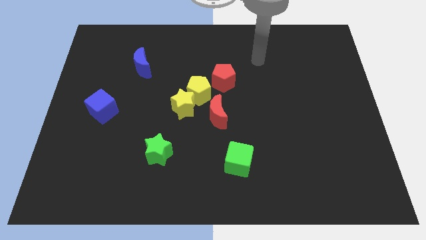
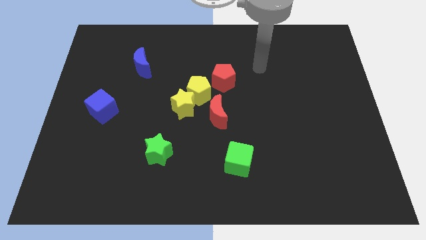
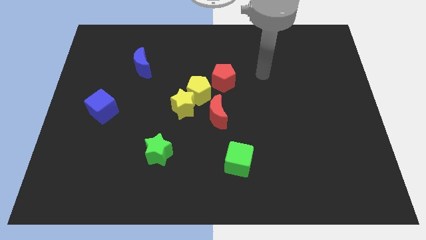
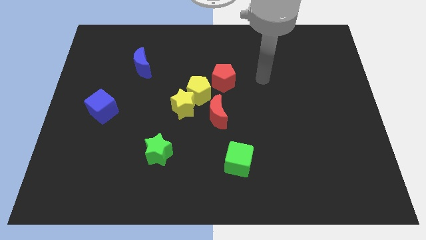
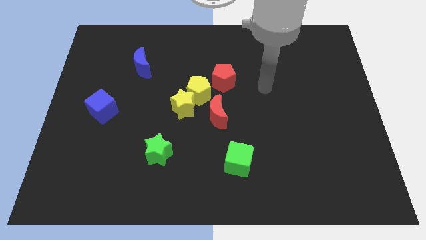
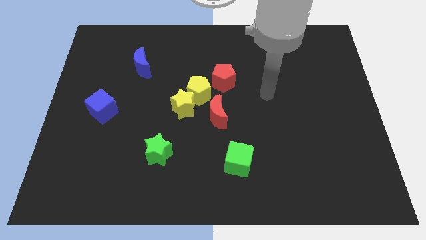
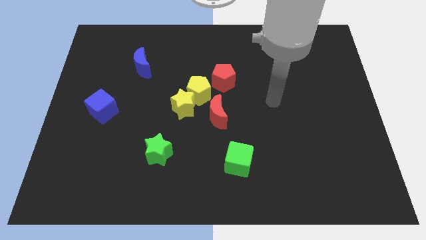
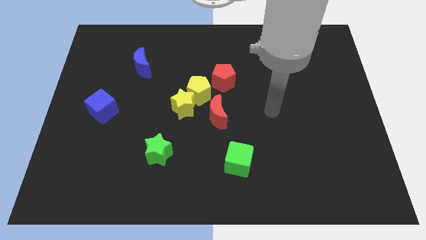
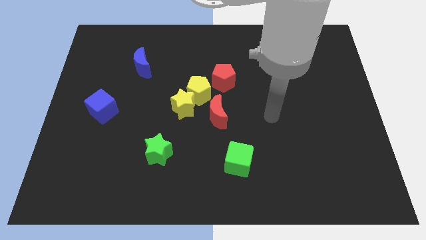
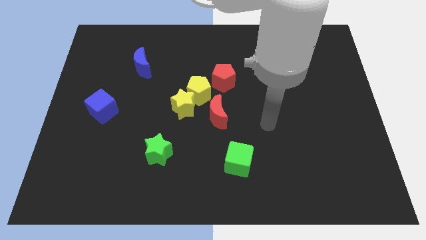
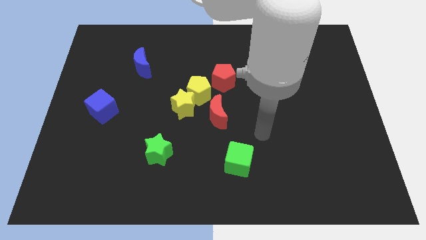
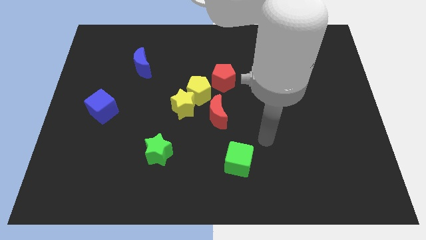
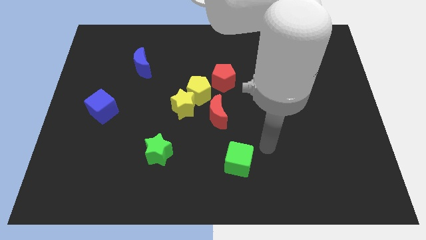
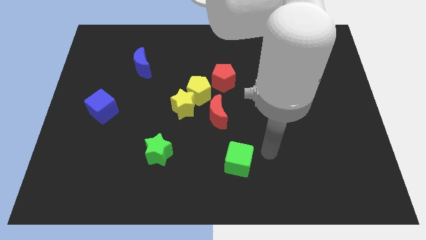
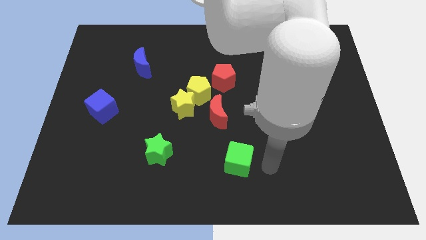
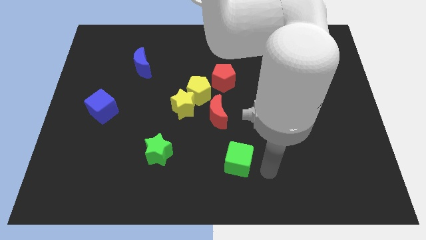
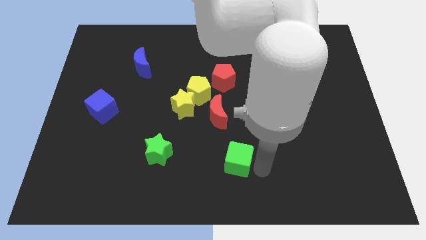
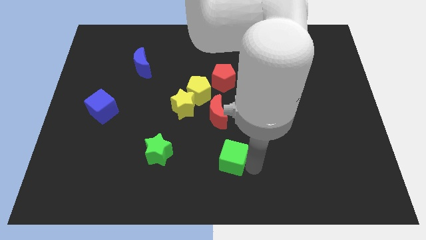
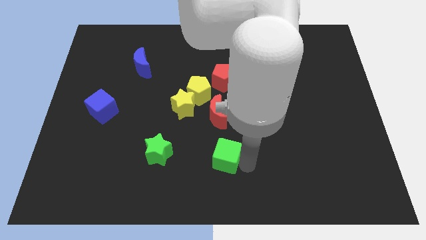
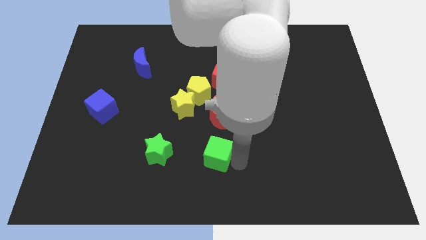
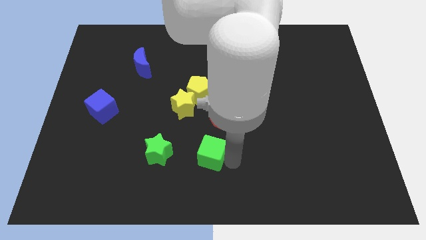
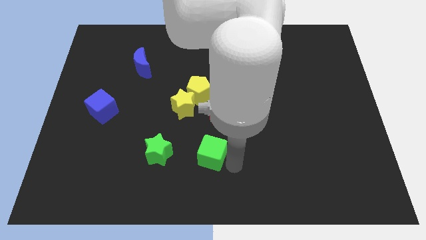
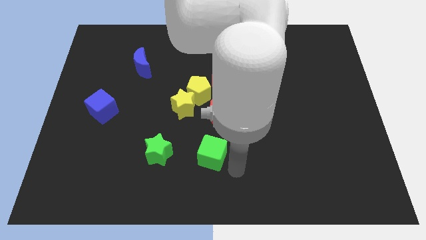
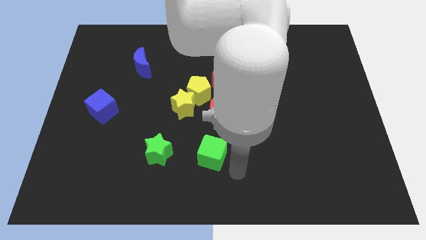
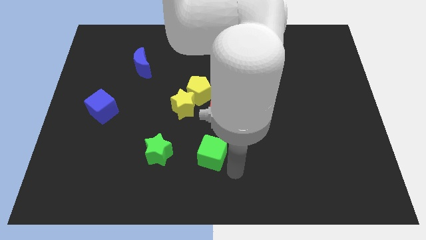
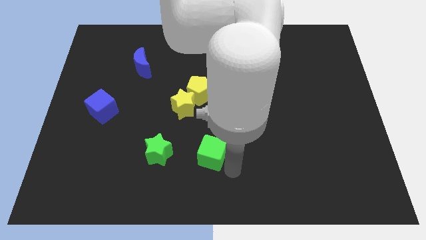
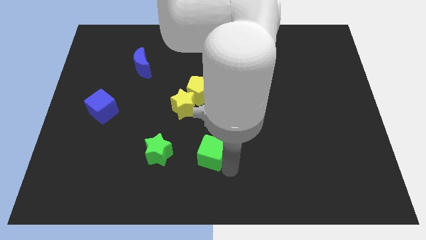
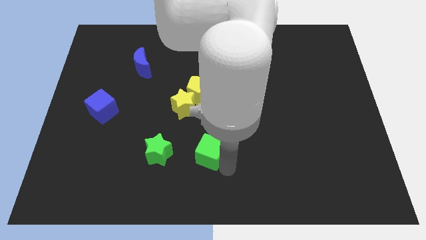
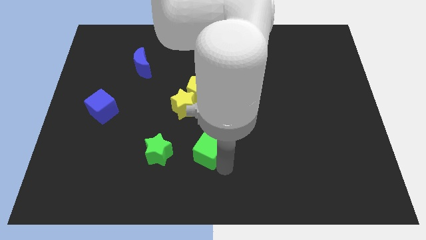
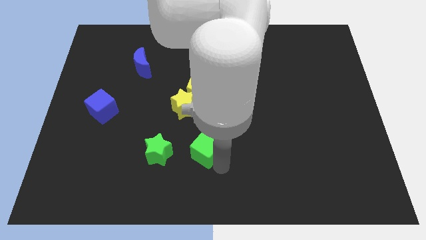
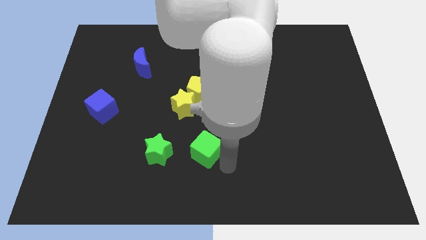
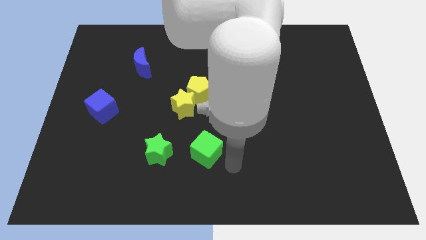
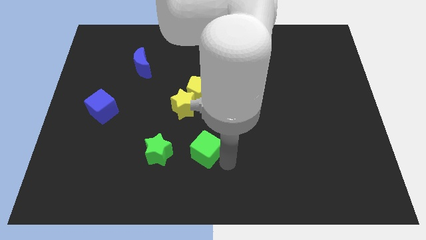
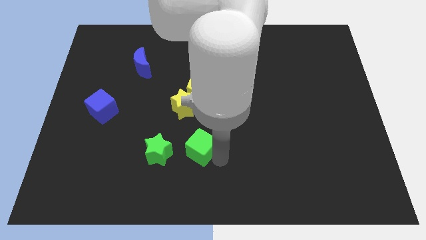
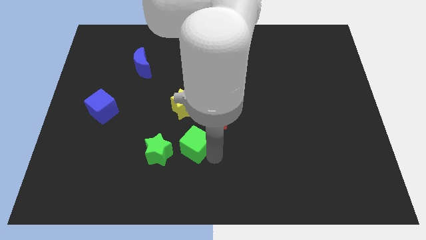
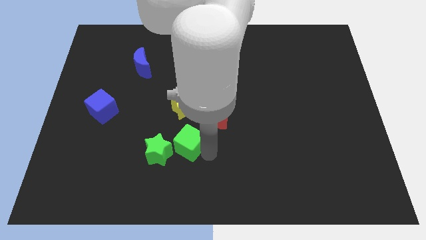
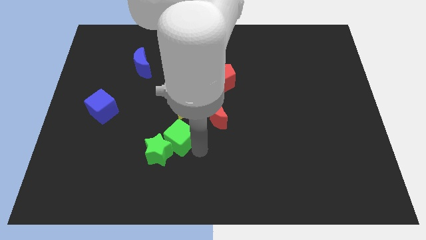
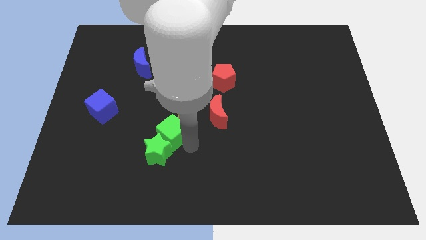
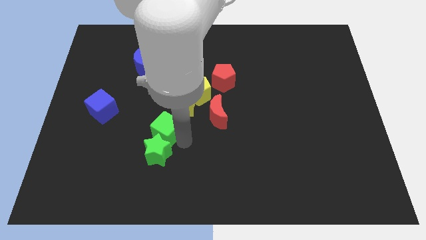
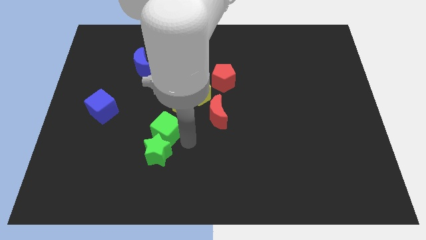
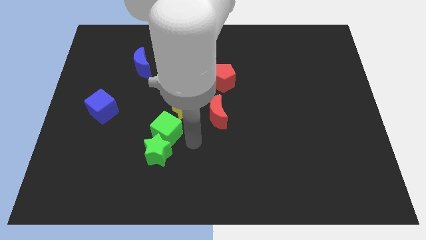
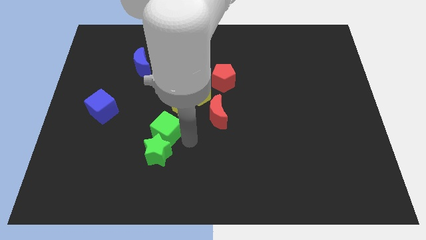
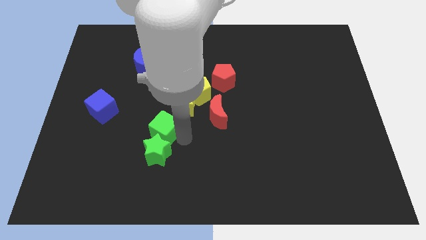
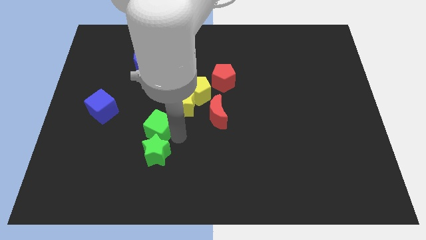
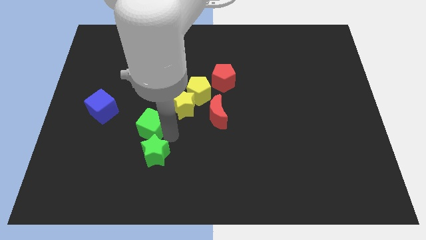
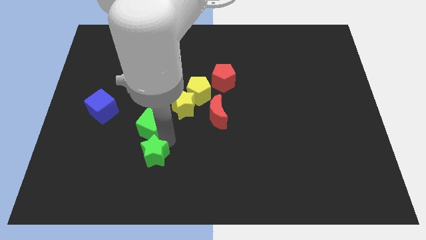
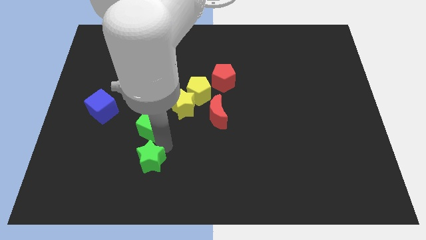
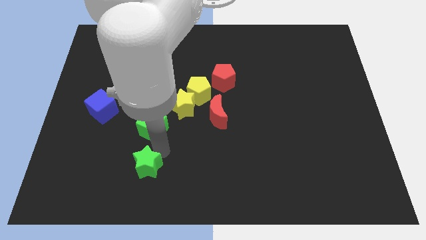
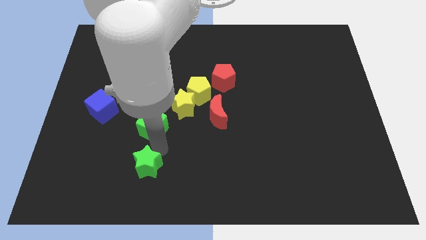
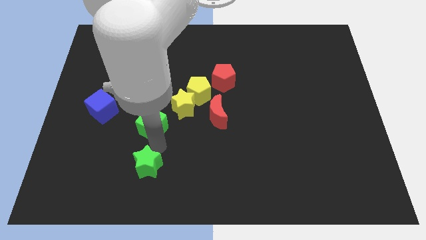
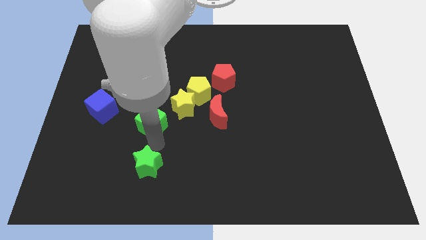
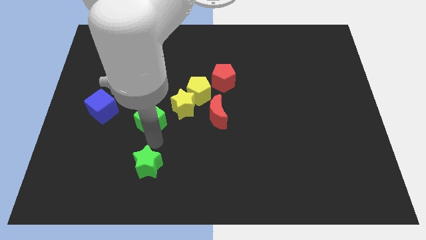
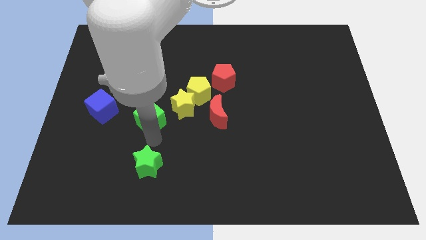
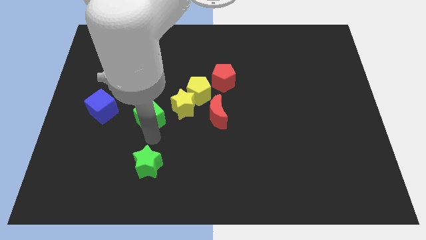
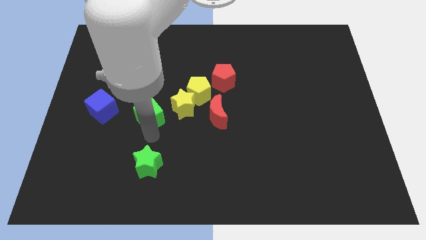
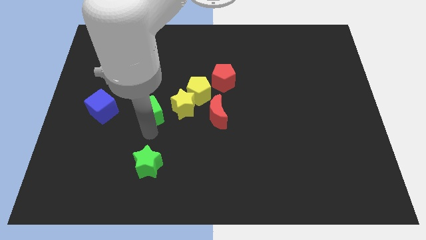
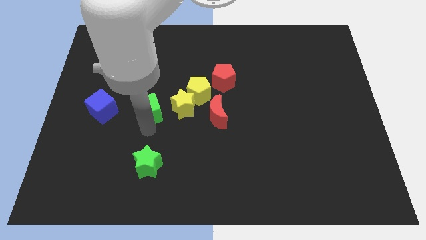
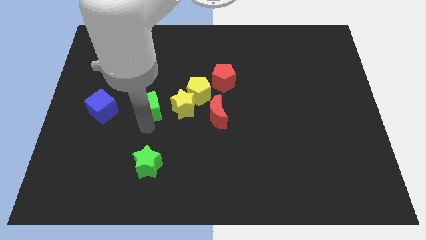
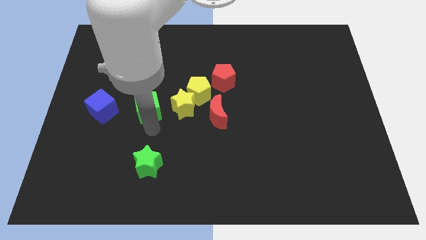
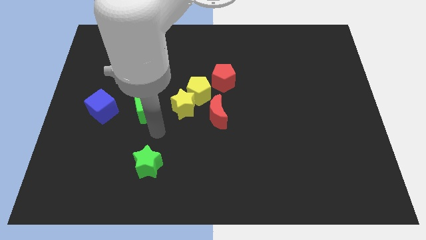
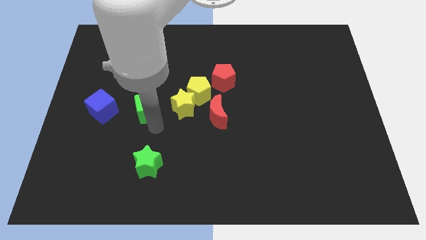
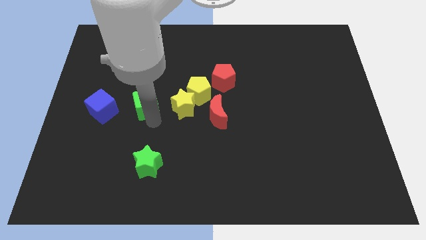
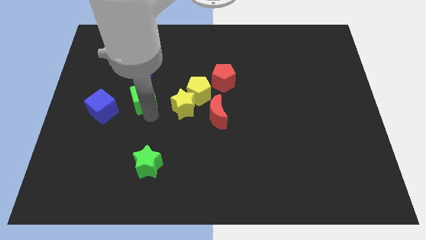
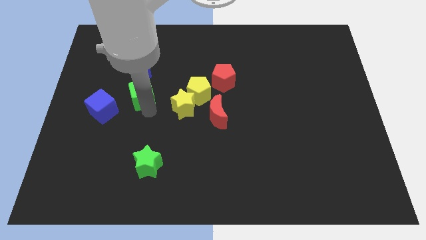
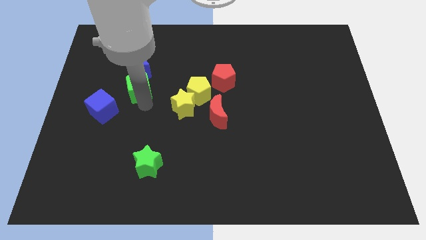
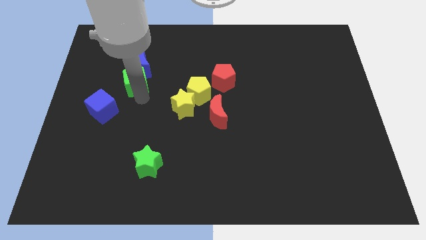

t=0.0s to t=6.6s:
slide the green cube next to the blue moon

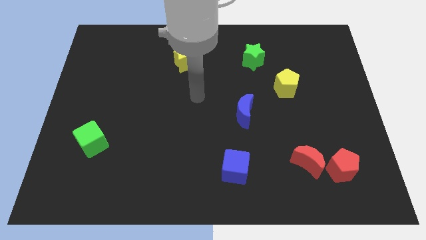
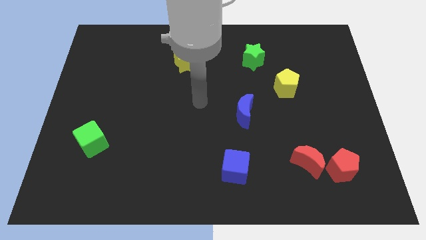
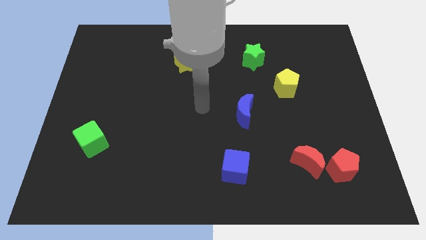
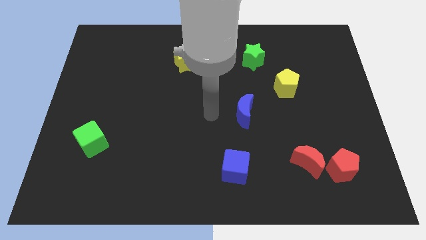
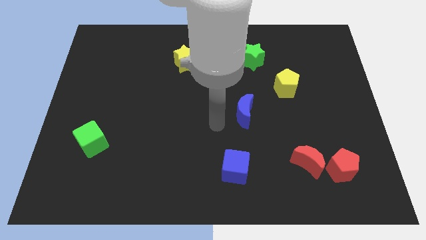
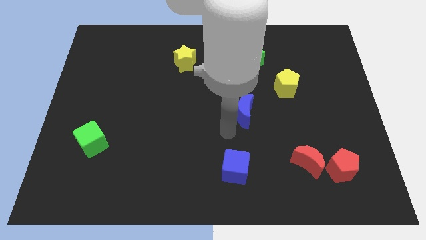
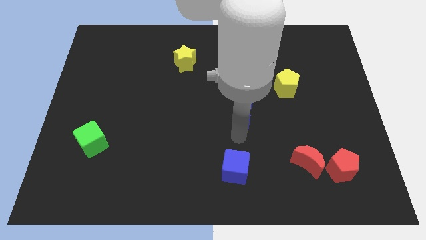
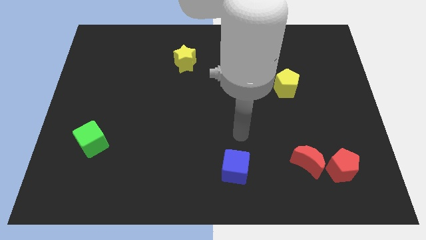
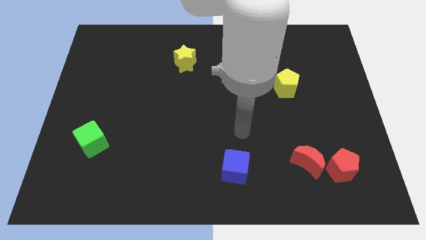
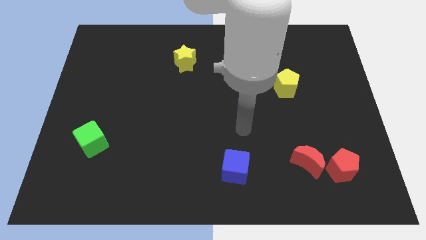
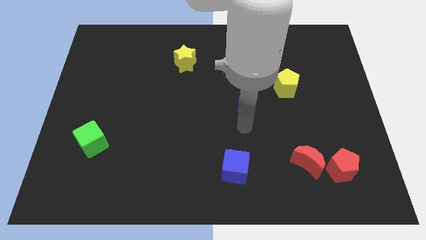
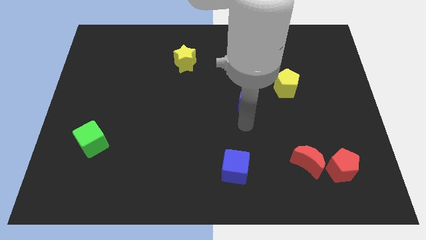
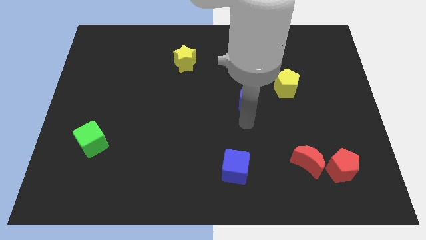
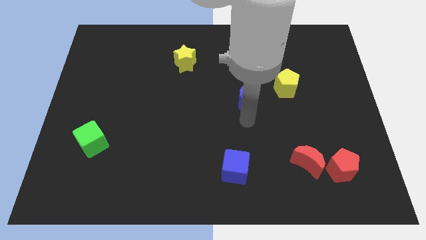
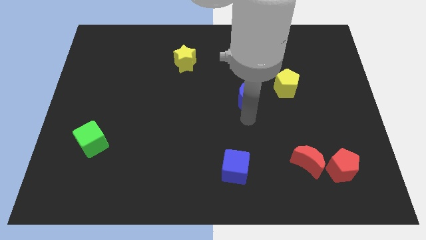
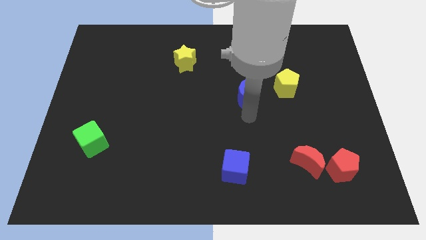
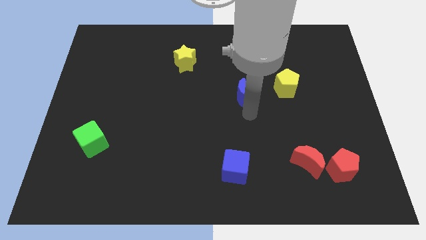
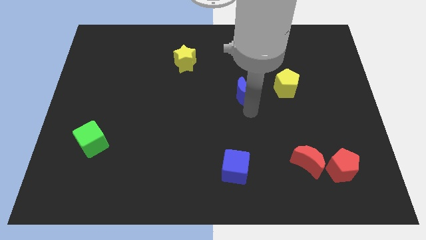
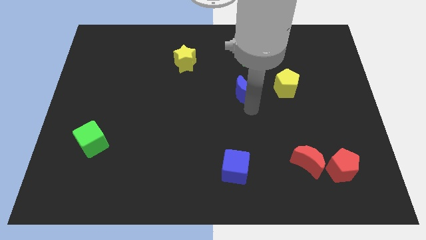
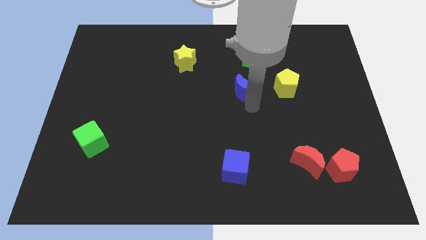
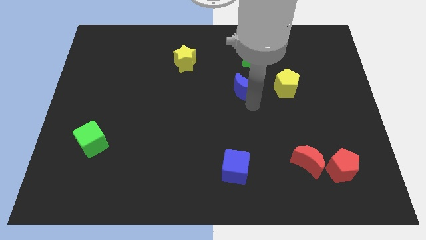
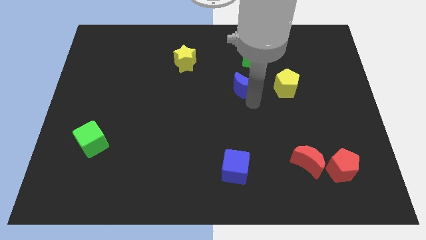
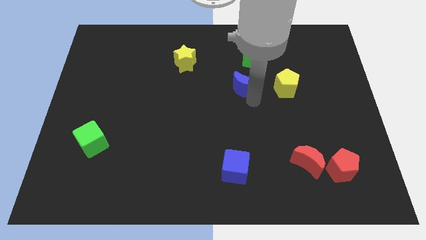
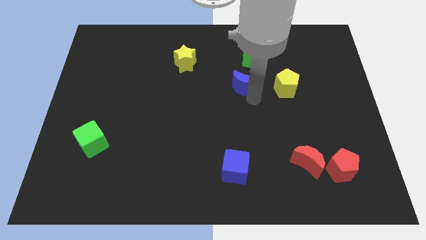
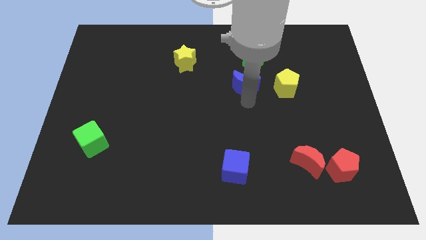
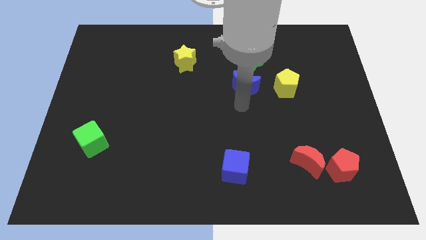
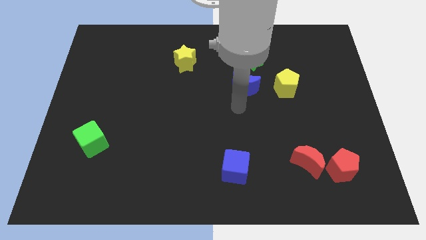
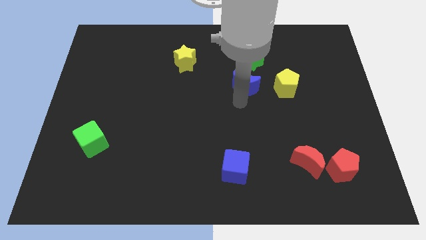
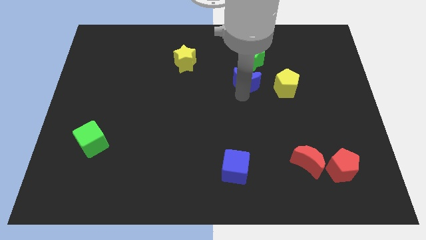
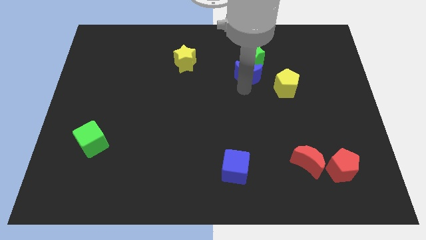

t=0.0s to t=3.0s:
put the blue moon next to the green star
